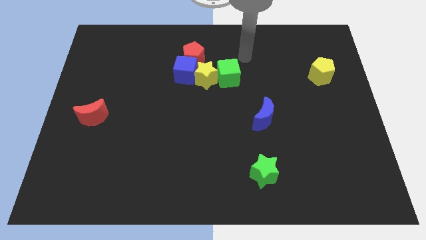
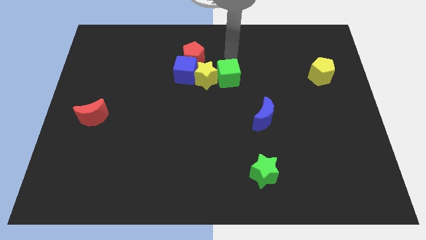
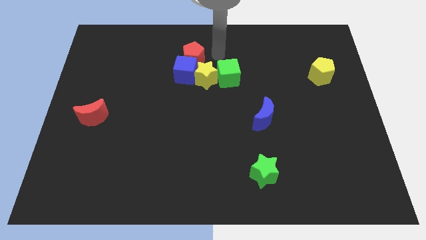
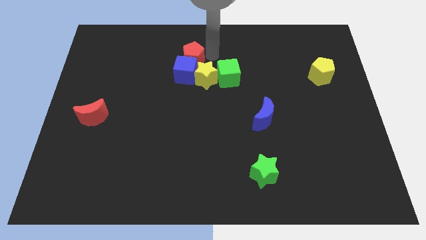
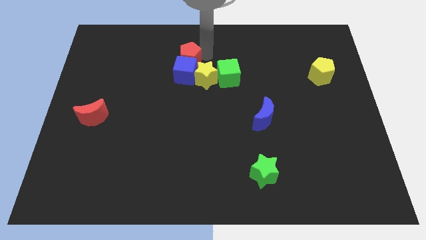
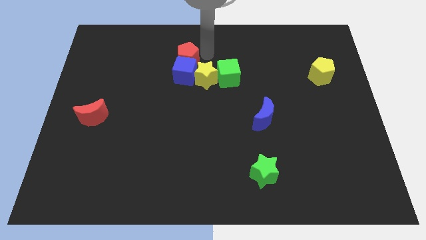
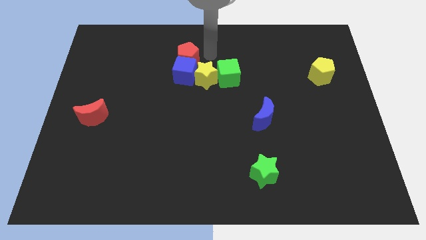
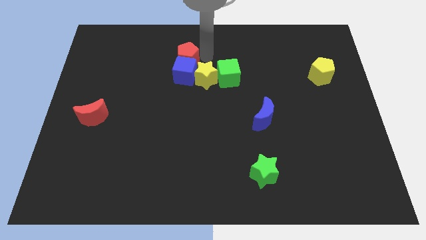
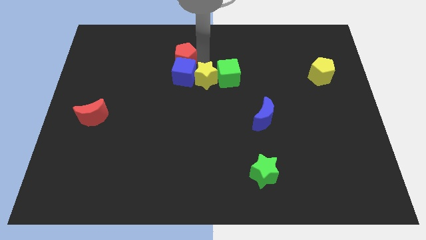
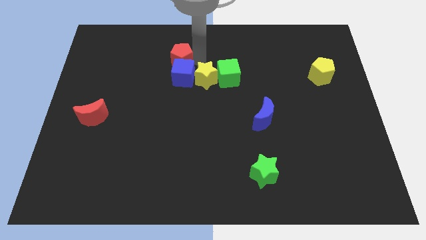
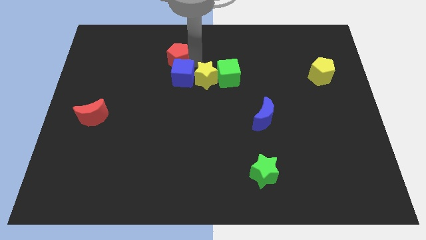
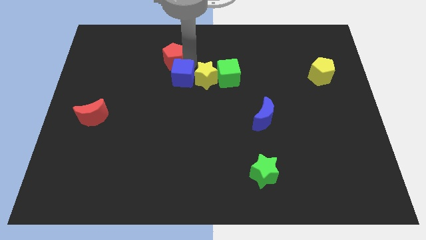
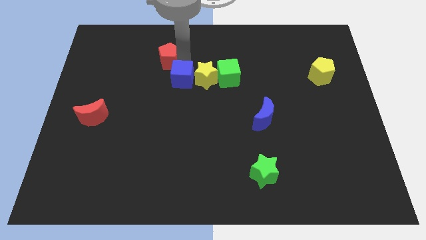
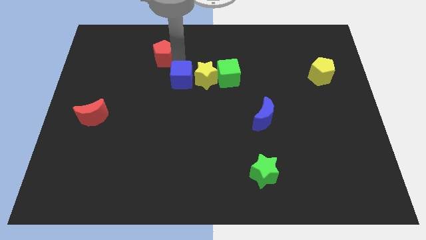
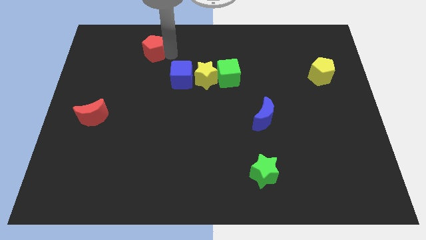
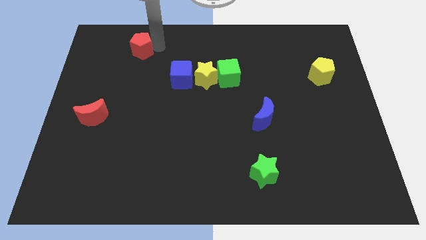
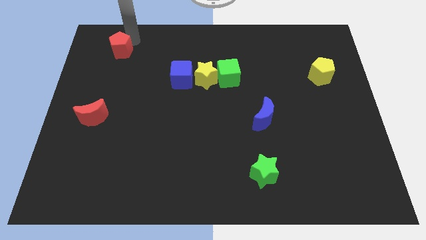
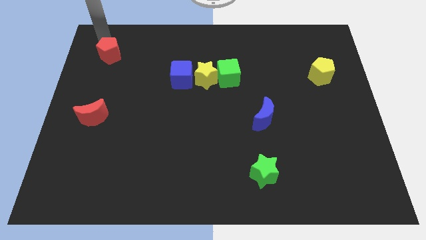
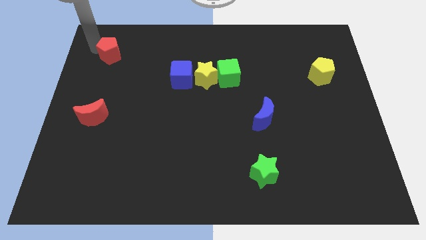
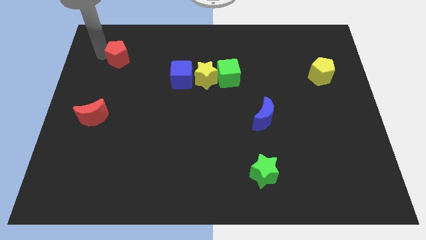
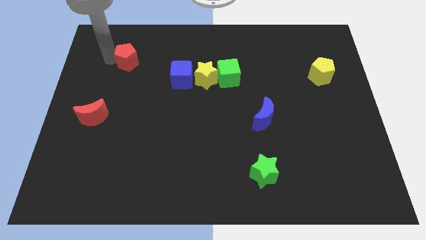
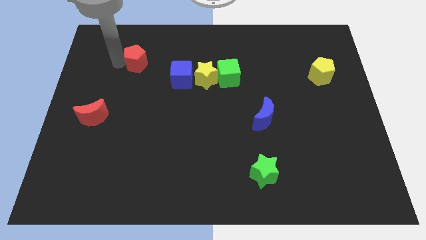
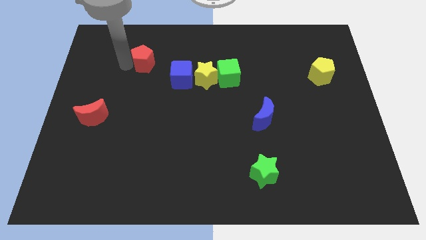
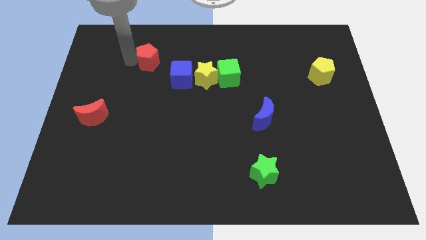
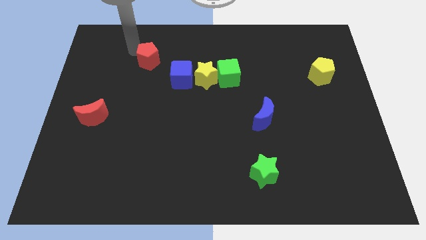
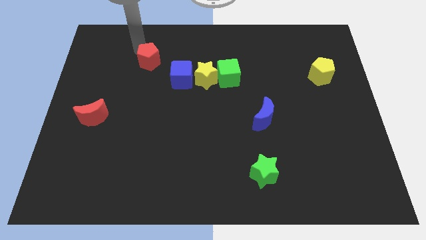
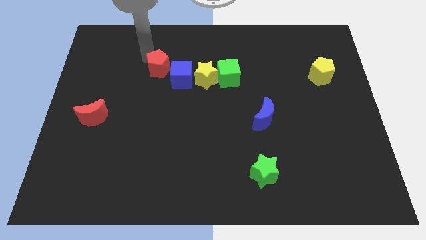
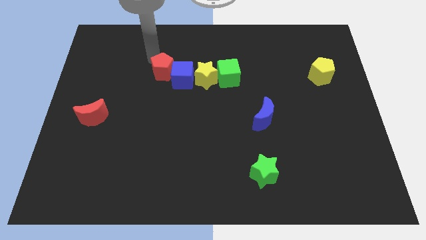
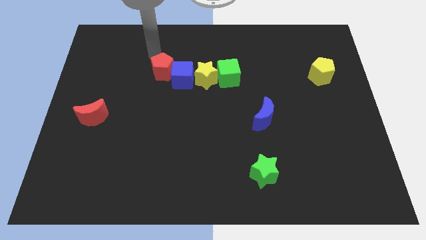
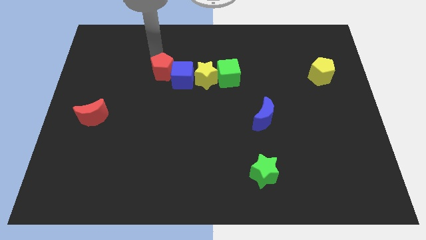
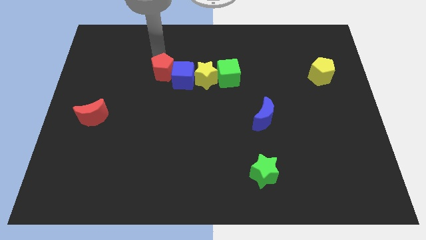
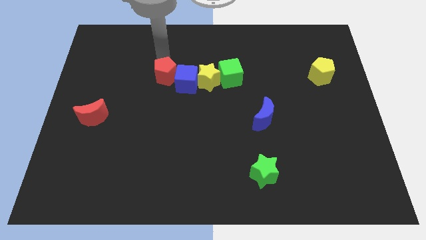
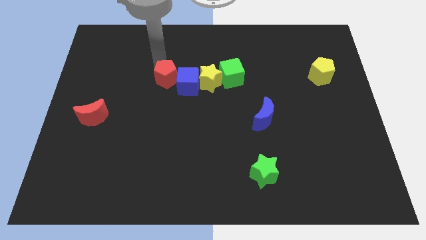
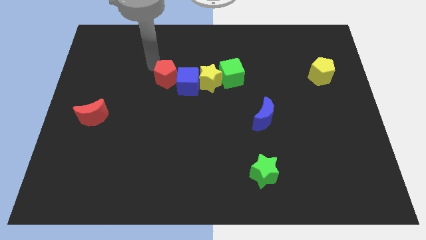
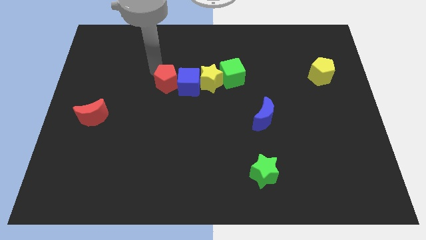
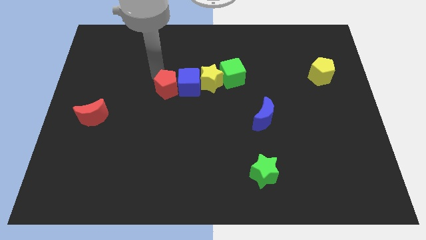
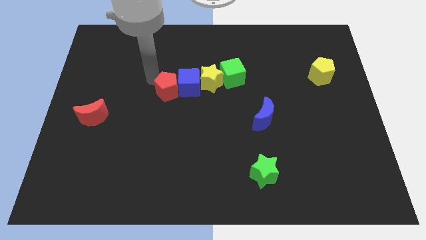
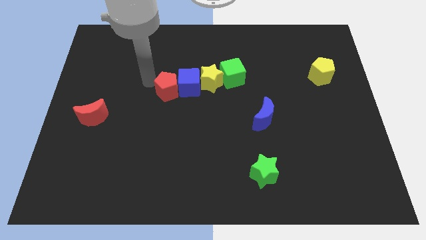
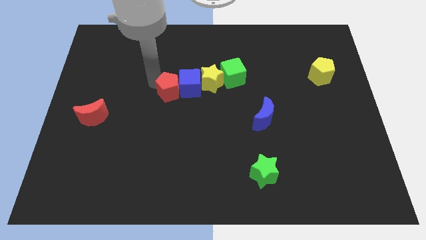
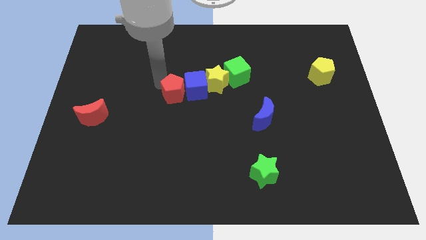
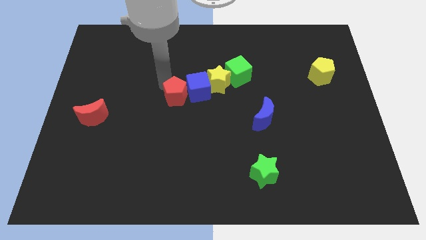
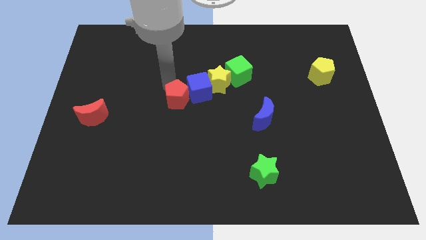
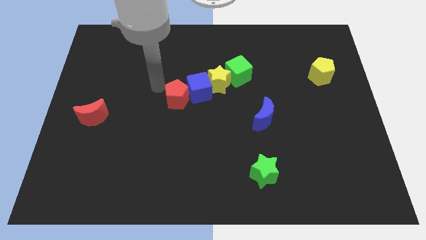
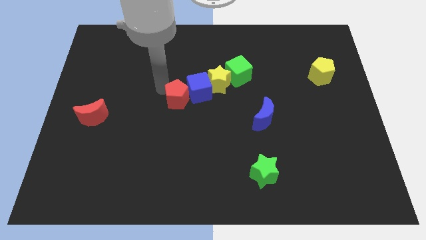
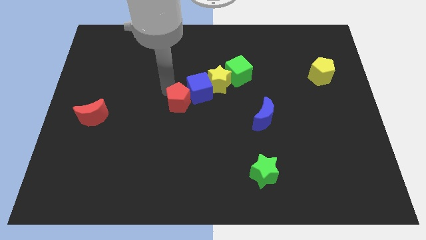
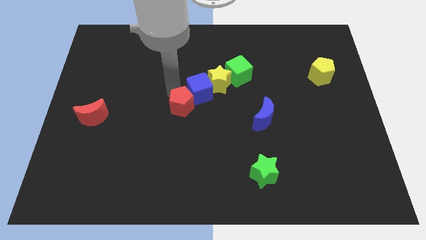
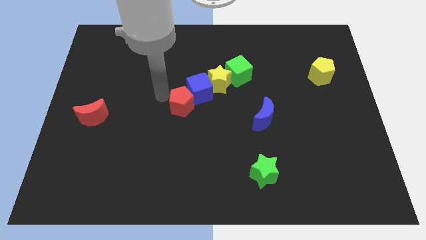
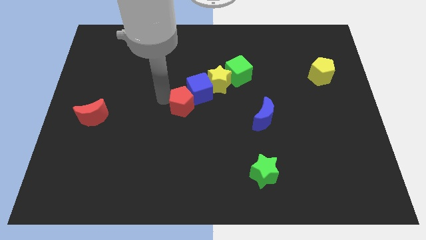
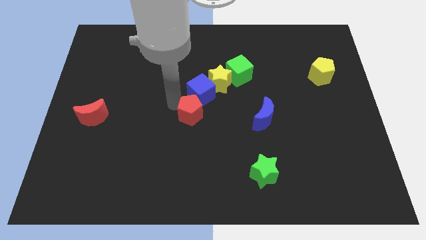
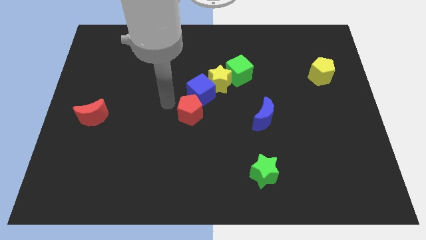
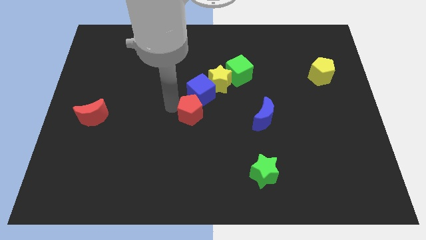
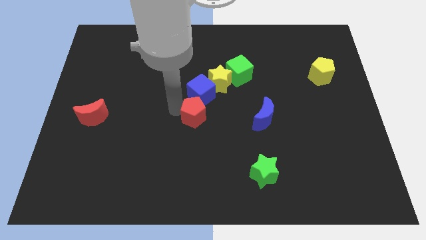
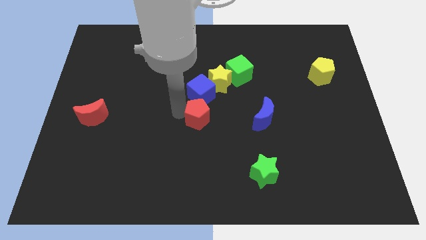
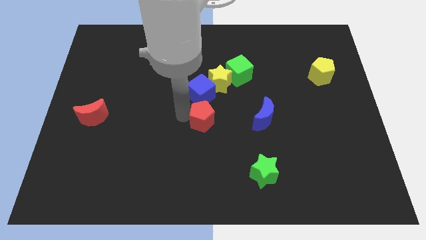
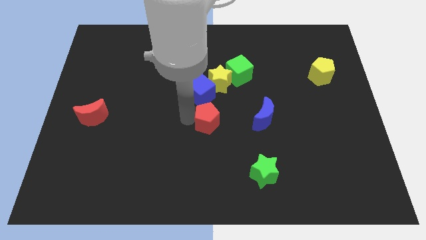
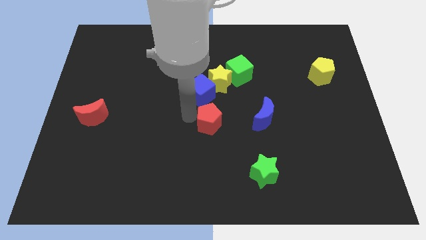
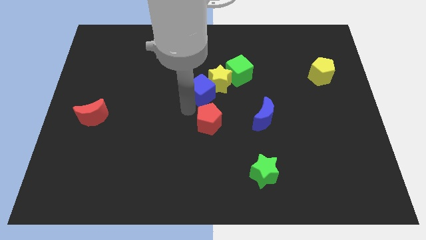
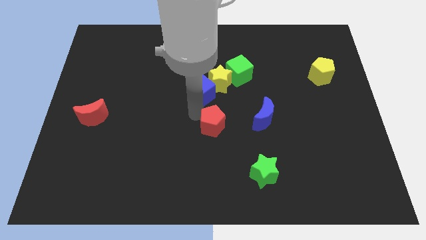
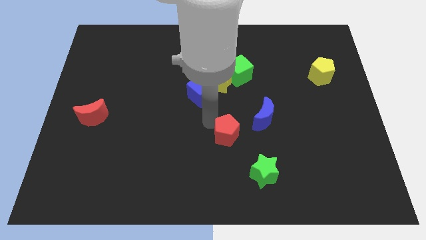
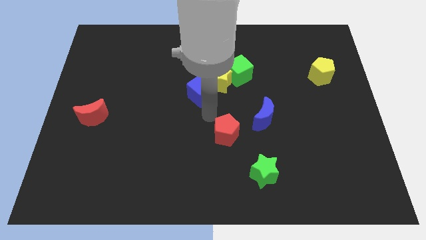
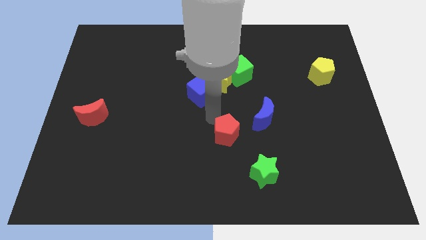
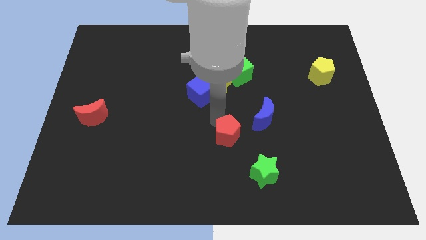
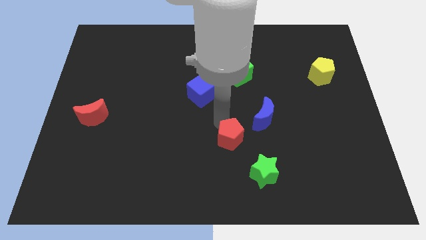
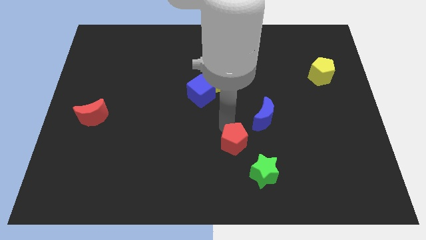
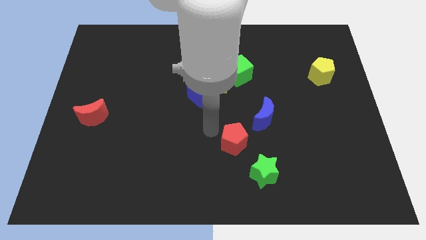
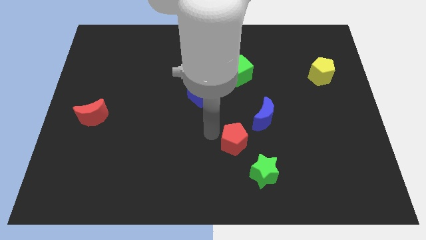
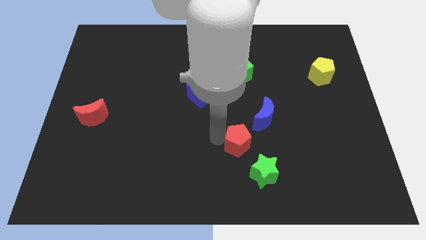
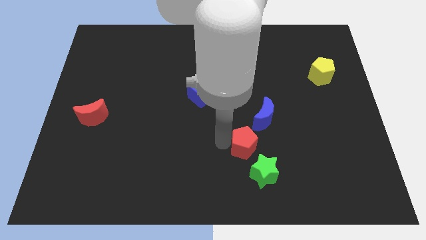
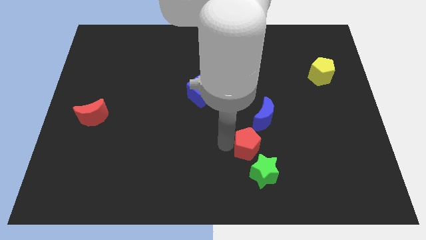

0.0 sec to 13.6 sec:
slide the red pentagon to the bottom of the blue moon
